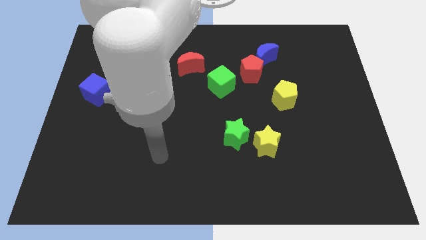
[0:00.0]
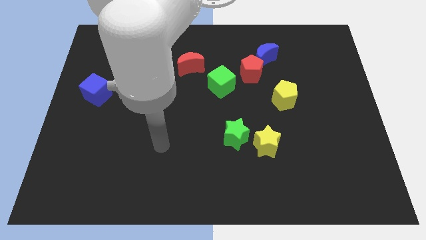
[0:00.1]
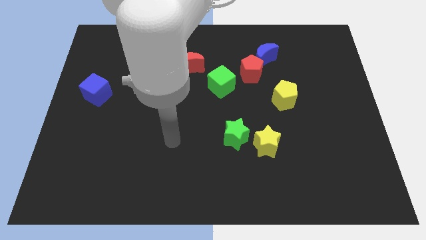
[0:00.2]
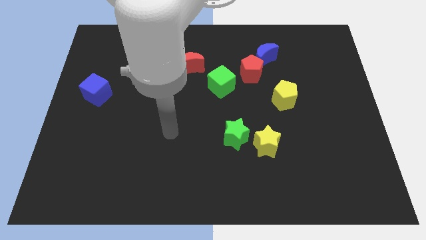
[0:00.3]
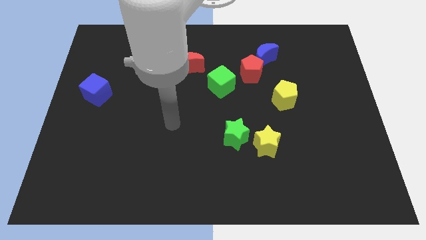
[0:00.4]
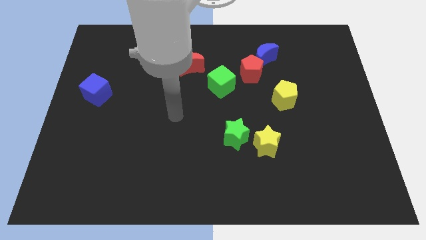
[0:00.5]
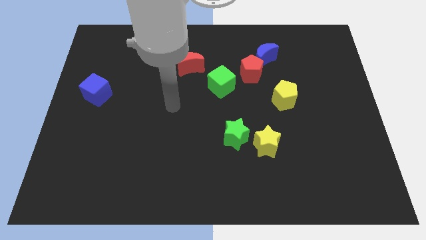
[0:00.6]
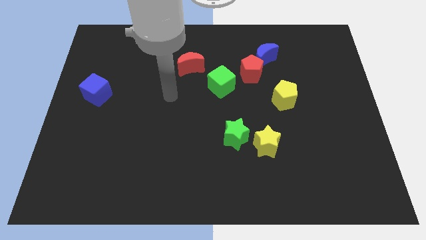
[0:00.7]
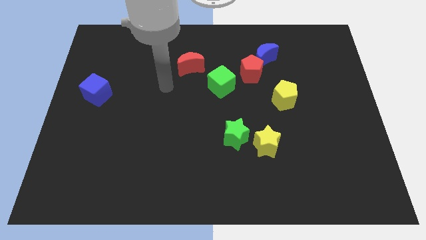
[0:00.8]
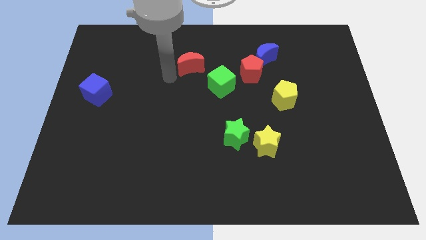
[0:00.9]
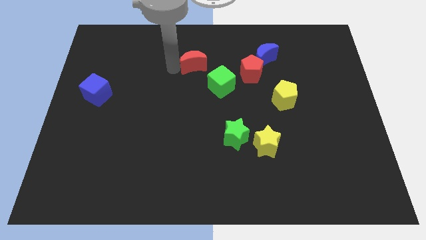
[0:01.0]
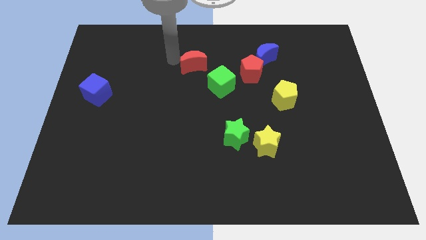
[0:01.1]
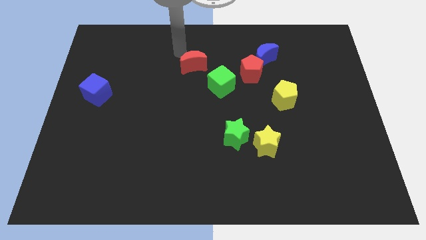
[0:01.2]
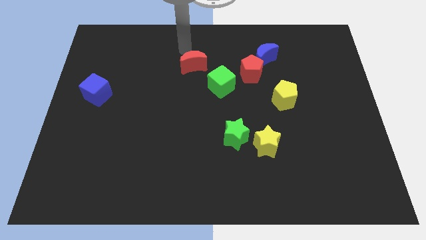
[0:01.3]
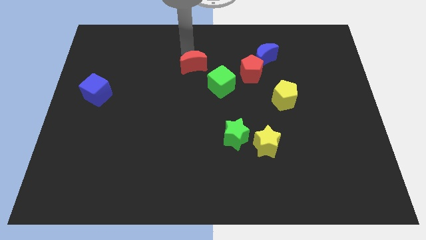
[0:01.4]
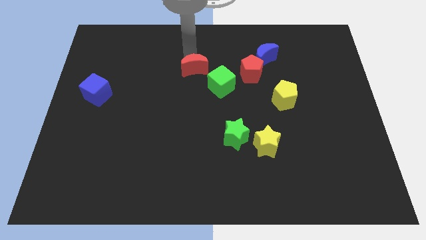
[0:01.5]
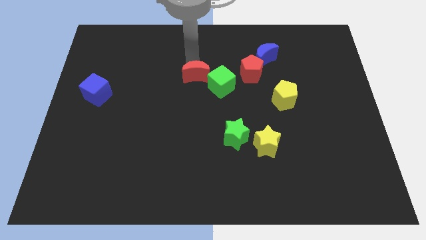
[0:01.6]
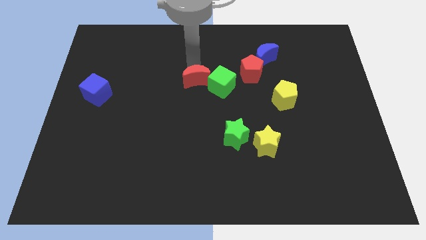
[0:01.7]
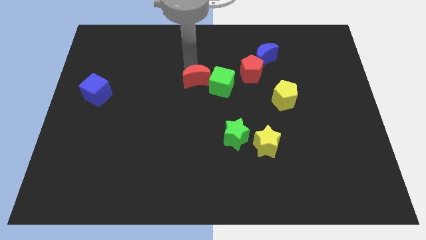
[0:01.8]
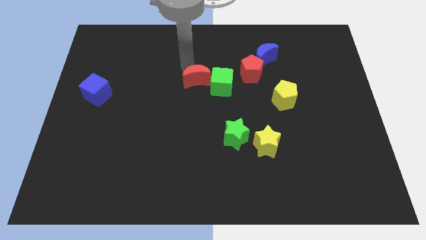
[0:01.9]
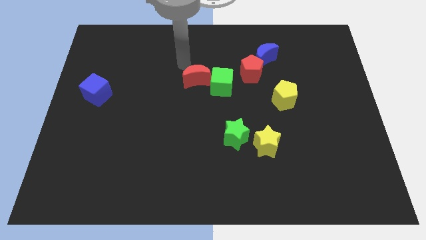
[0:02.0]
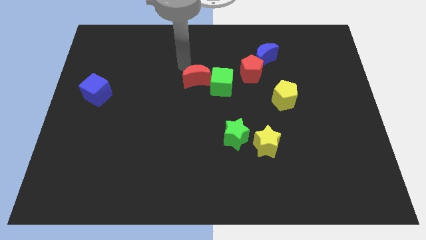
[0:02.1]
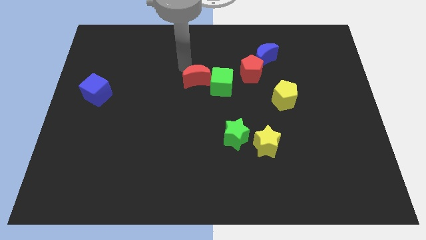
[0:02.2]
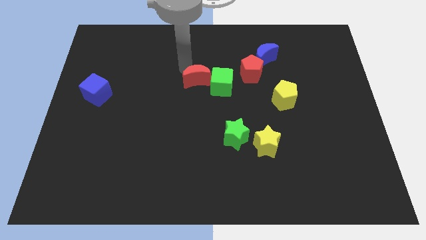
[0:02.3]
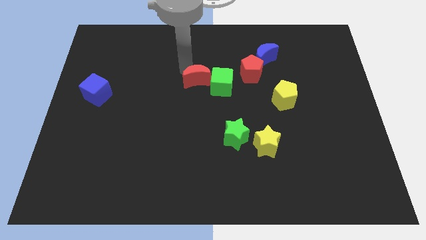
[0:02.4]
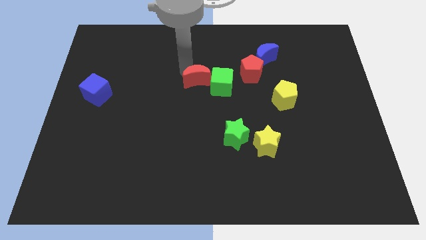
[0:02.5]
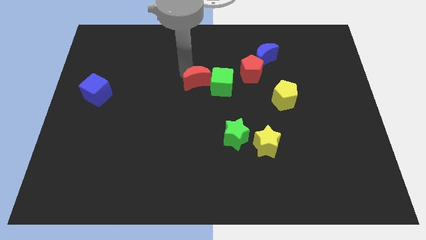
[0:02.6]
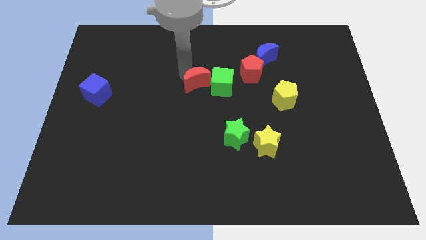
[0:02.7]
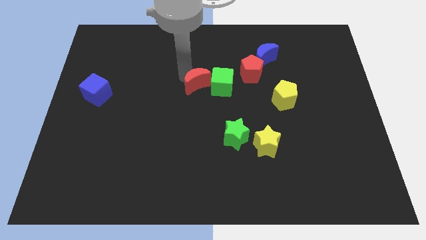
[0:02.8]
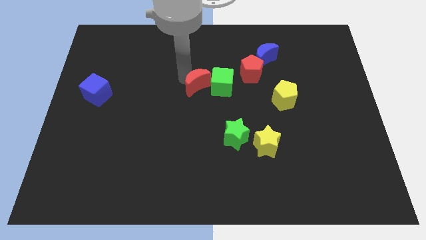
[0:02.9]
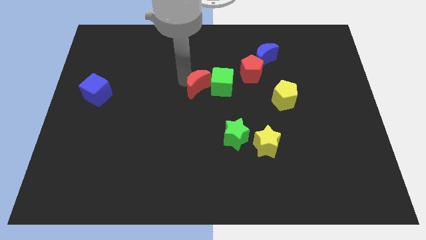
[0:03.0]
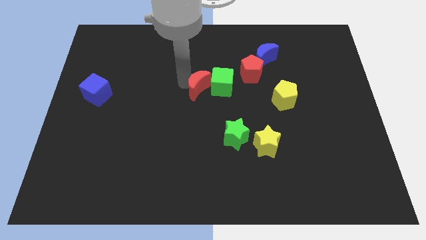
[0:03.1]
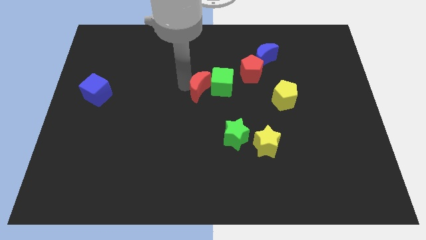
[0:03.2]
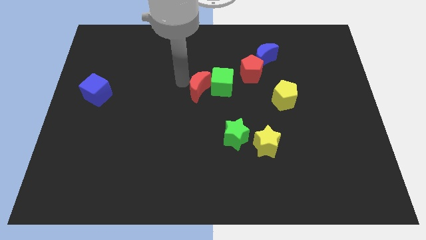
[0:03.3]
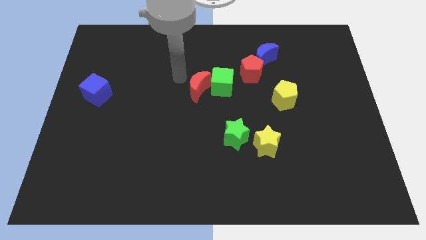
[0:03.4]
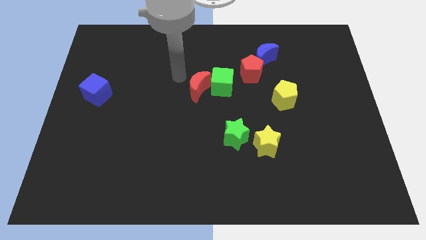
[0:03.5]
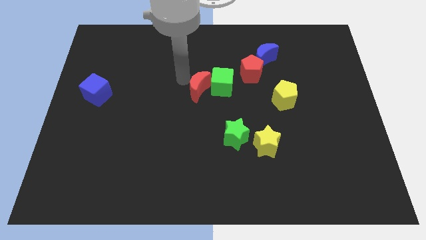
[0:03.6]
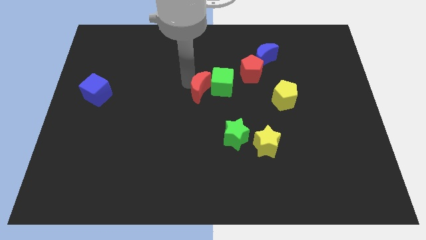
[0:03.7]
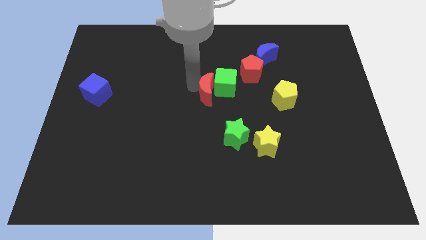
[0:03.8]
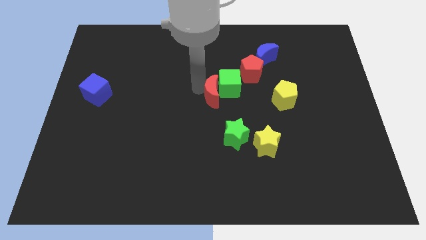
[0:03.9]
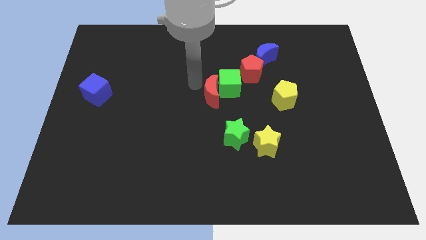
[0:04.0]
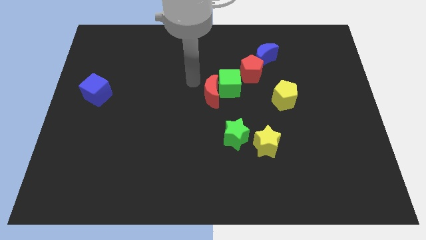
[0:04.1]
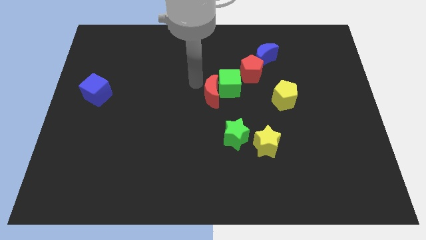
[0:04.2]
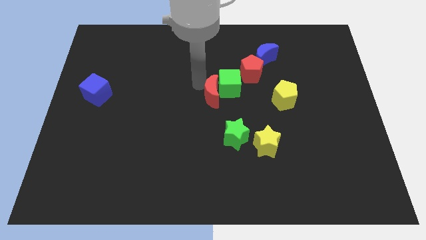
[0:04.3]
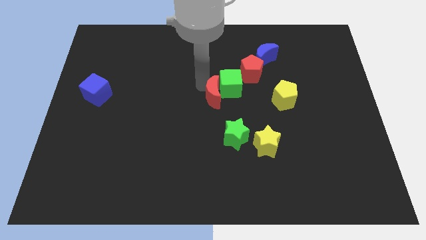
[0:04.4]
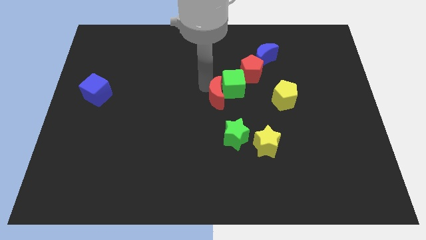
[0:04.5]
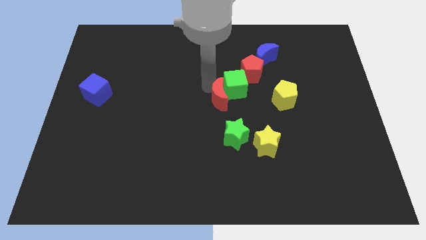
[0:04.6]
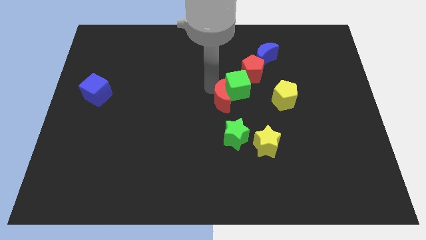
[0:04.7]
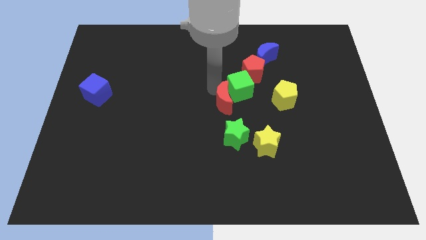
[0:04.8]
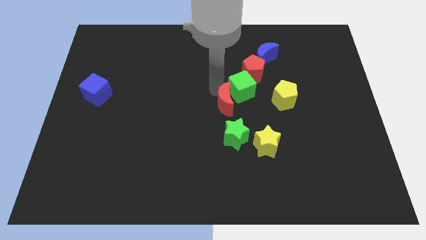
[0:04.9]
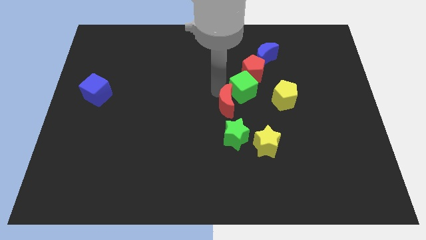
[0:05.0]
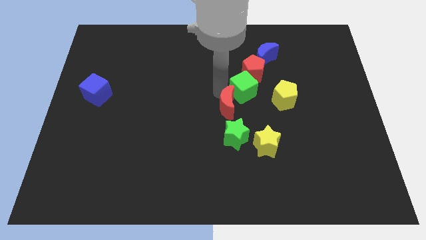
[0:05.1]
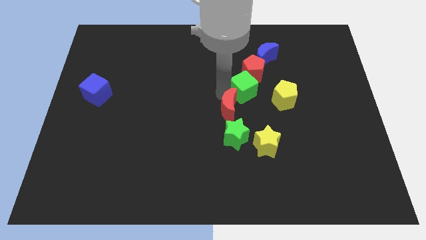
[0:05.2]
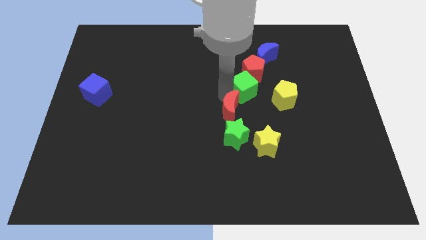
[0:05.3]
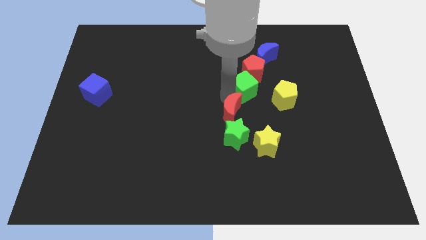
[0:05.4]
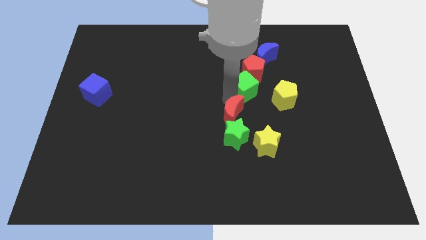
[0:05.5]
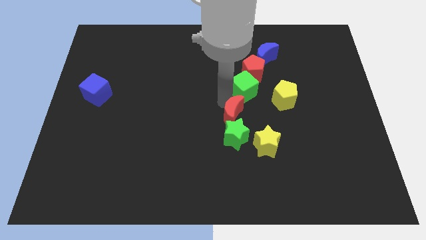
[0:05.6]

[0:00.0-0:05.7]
move the red moon to the top right side of the green star
